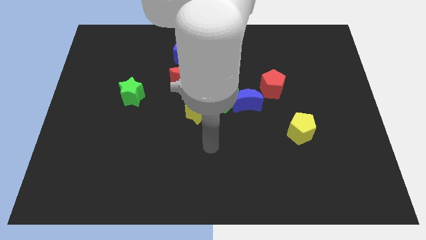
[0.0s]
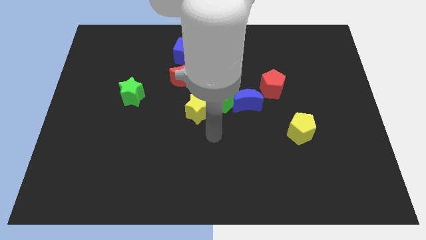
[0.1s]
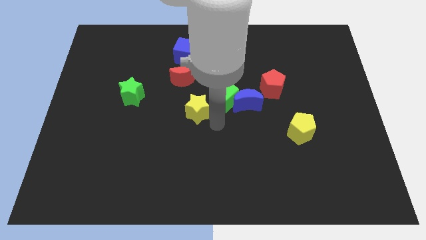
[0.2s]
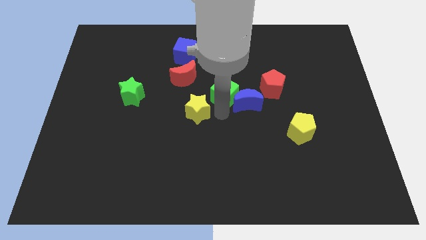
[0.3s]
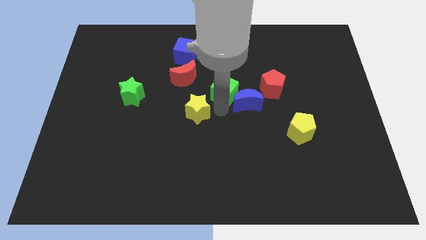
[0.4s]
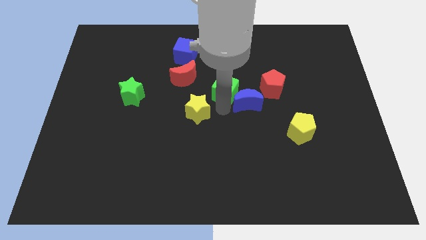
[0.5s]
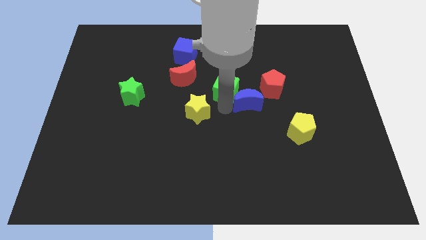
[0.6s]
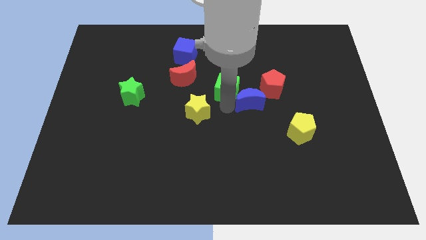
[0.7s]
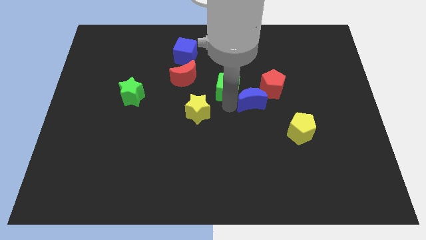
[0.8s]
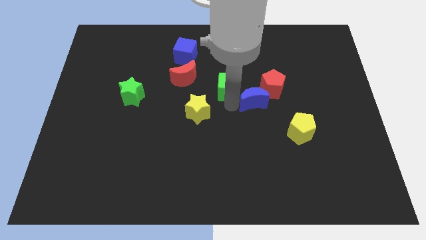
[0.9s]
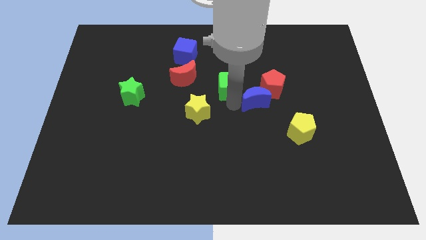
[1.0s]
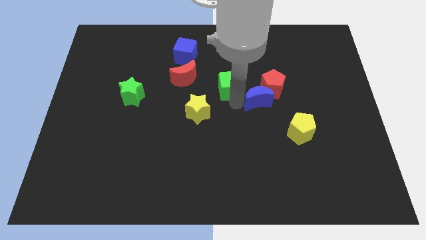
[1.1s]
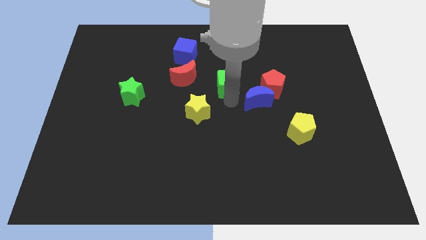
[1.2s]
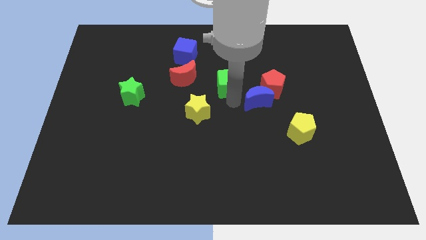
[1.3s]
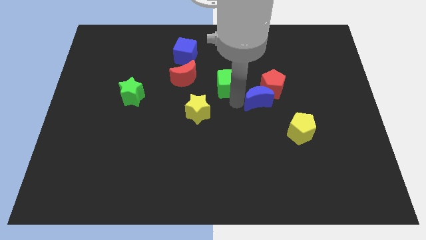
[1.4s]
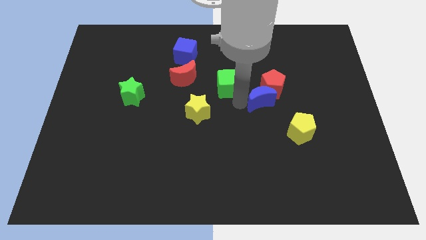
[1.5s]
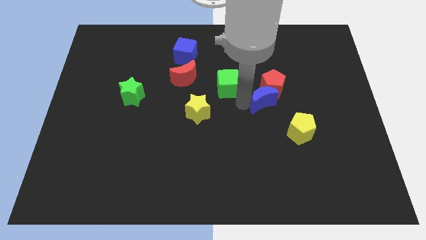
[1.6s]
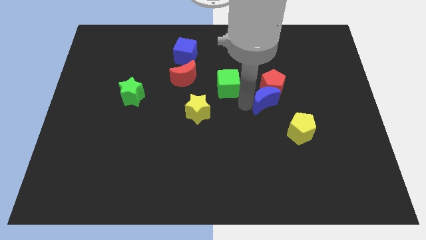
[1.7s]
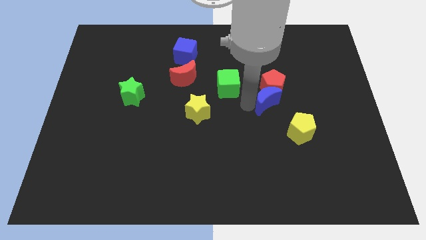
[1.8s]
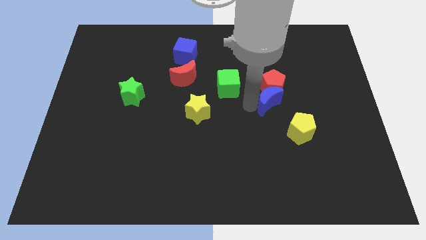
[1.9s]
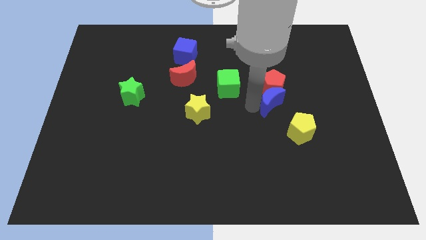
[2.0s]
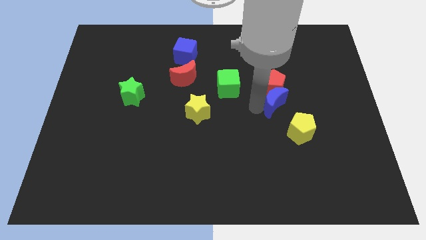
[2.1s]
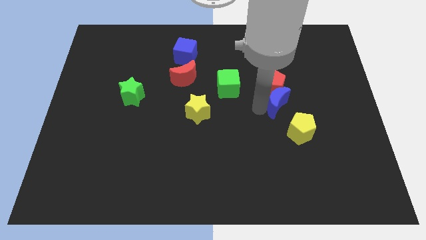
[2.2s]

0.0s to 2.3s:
slightly move the blue moon to the right

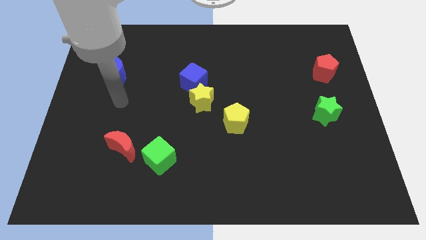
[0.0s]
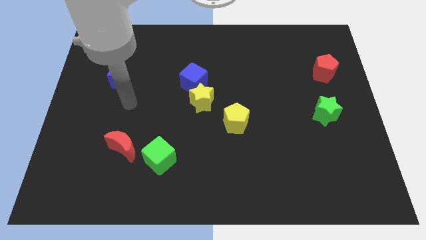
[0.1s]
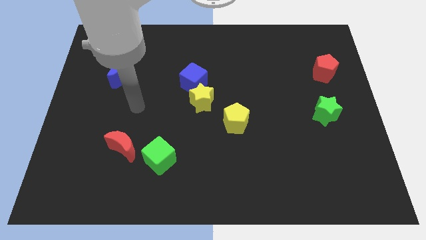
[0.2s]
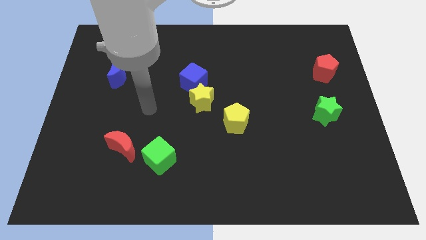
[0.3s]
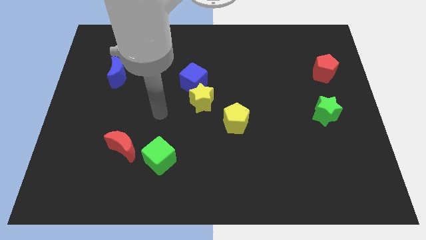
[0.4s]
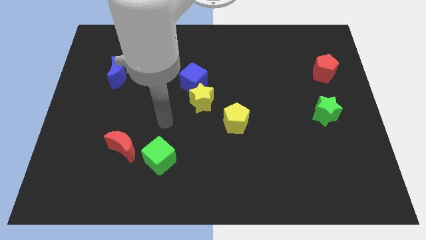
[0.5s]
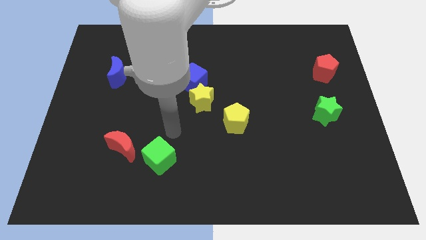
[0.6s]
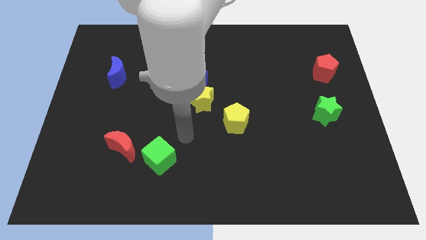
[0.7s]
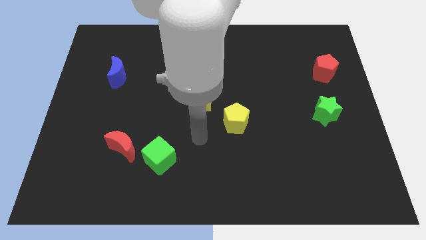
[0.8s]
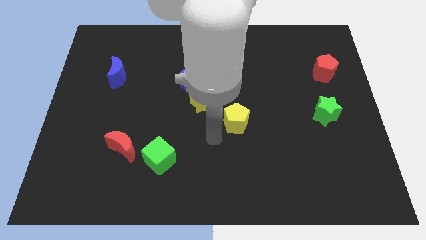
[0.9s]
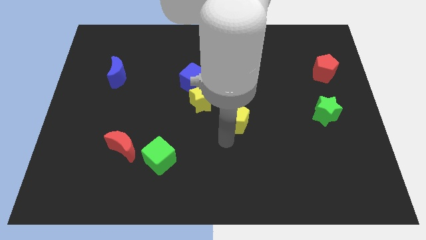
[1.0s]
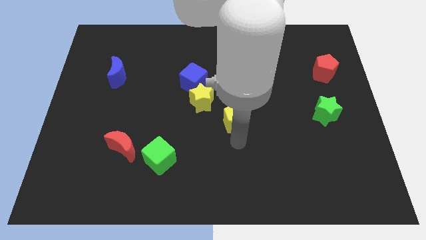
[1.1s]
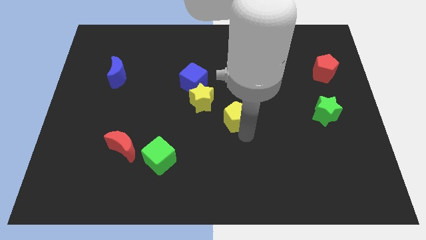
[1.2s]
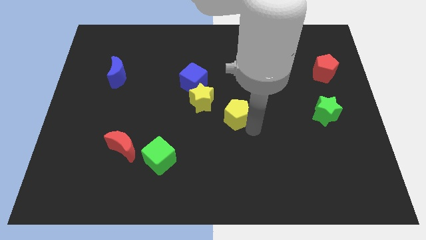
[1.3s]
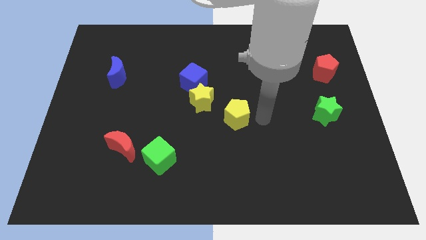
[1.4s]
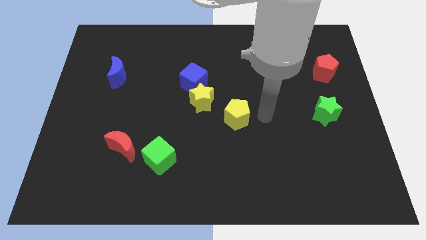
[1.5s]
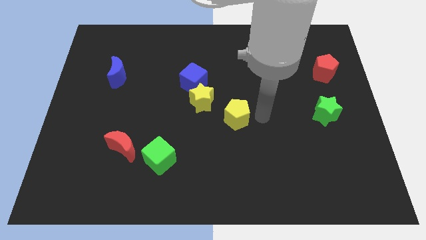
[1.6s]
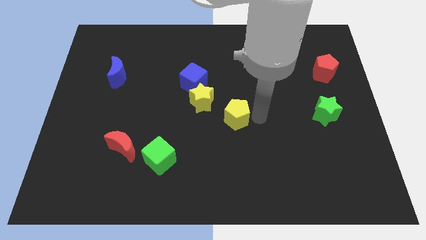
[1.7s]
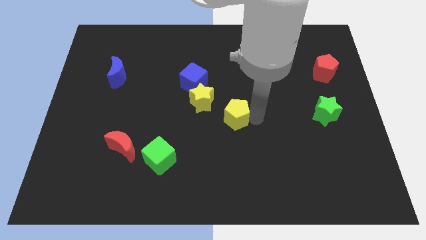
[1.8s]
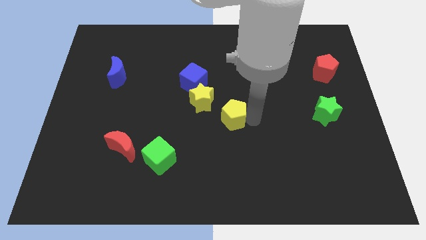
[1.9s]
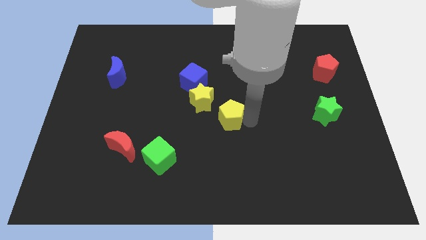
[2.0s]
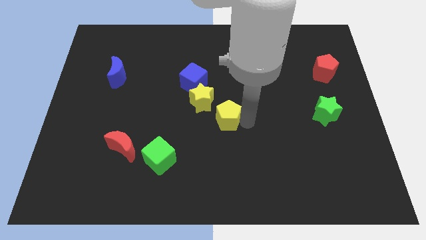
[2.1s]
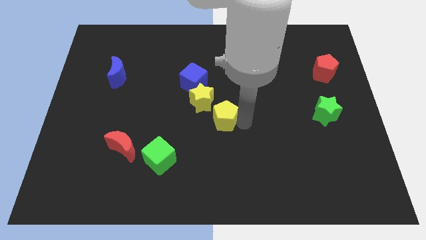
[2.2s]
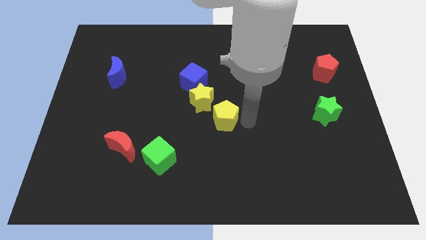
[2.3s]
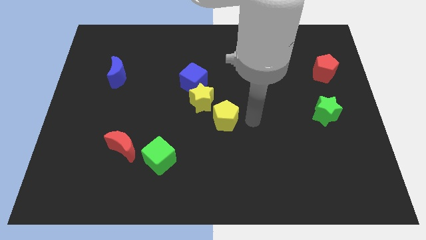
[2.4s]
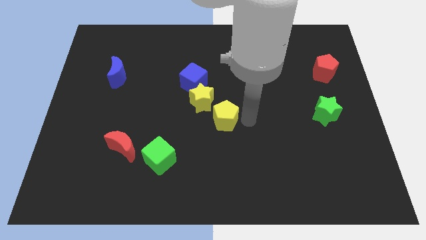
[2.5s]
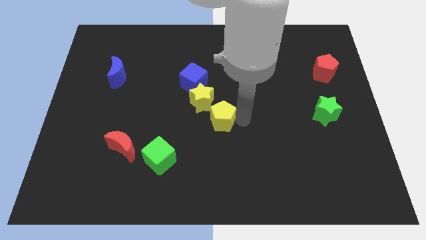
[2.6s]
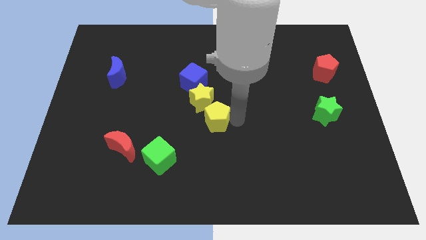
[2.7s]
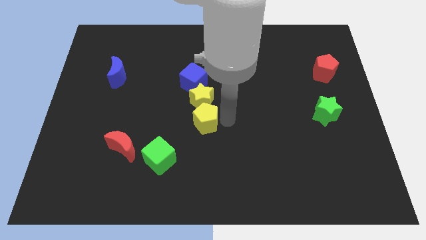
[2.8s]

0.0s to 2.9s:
slightly push the yellow pentagon left

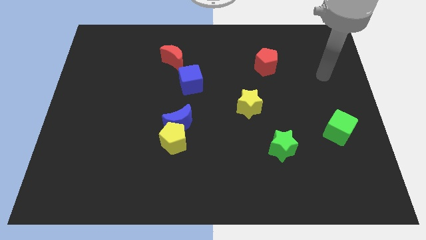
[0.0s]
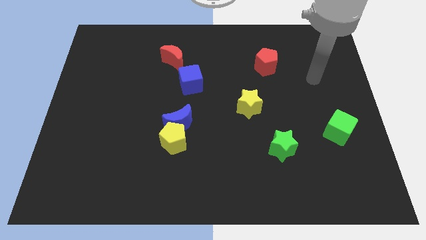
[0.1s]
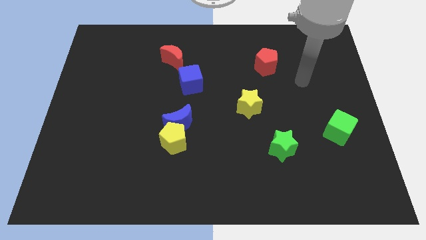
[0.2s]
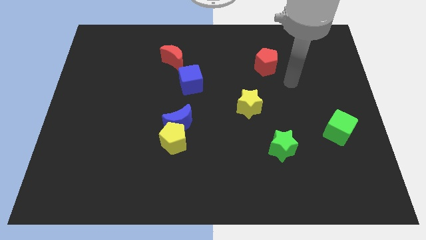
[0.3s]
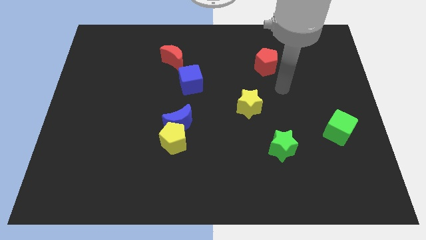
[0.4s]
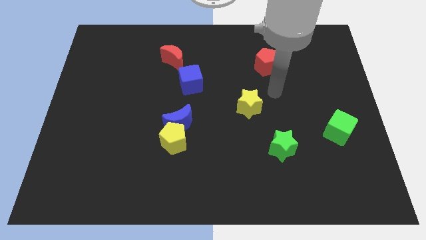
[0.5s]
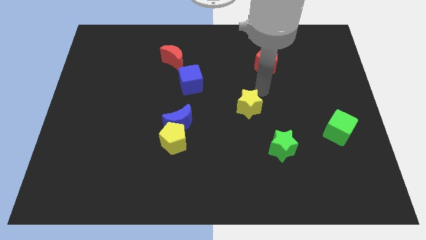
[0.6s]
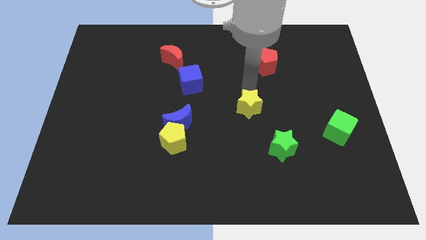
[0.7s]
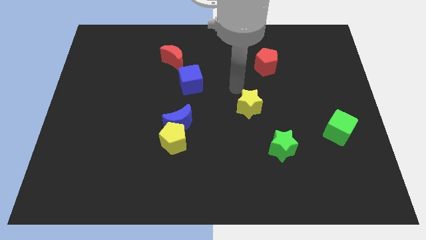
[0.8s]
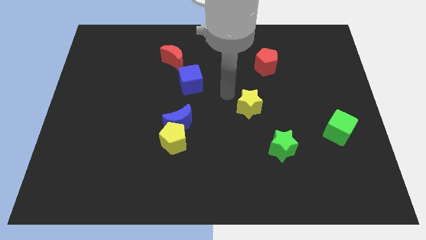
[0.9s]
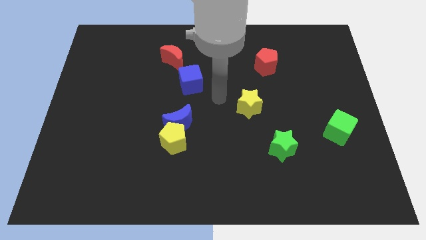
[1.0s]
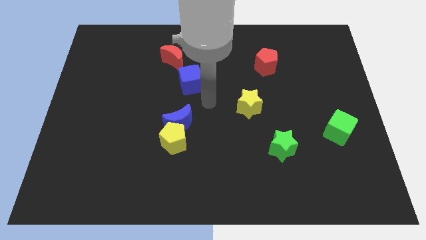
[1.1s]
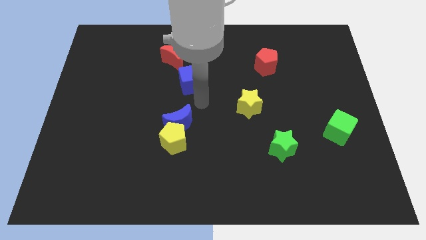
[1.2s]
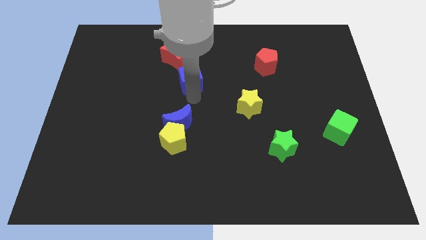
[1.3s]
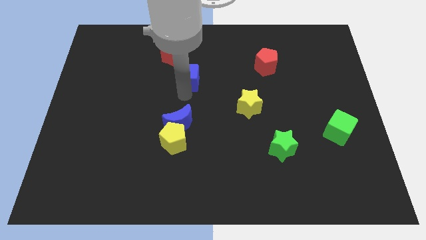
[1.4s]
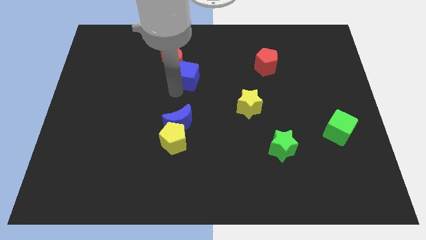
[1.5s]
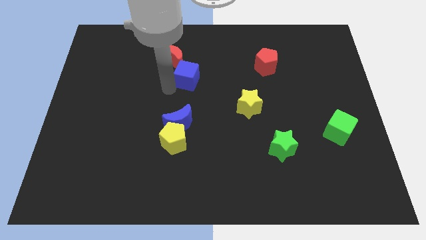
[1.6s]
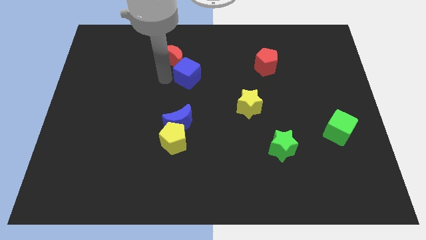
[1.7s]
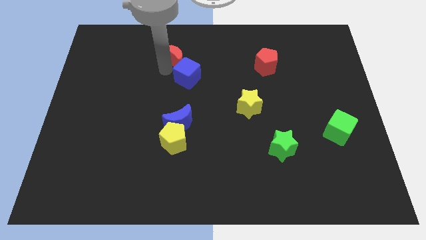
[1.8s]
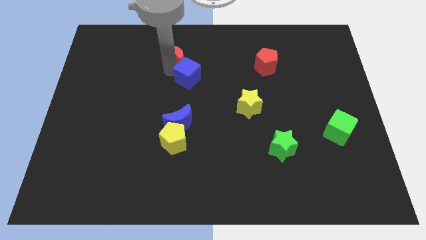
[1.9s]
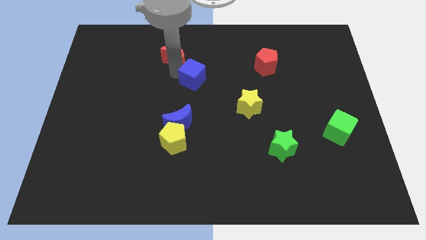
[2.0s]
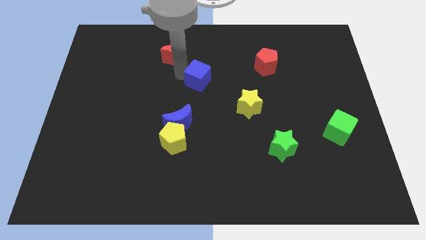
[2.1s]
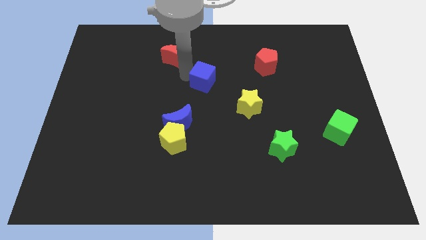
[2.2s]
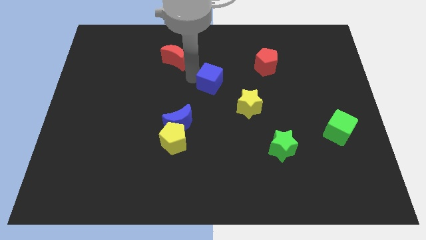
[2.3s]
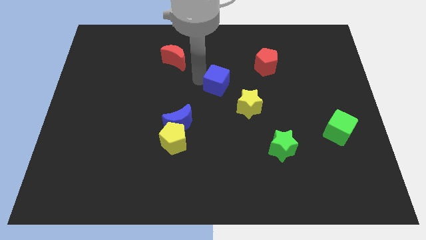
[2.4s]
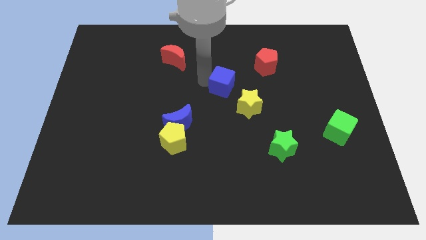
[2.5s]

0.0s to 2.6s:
push the blue cube right a bit

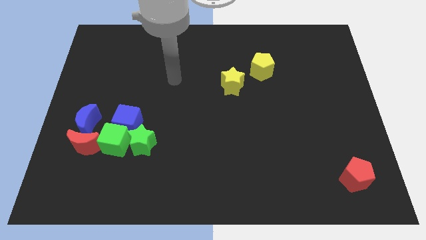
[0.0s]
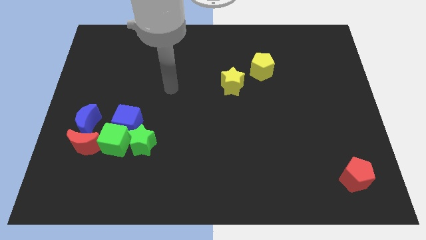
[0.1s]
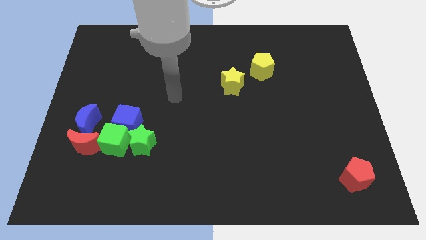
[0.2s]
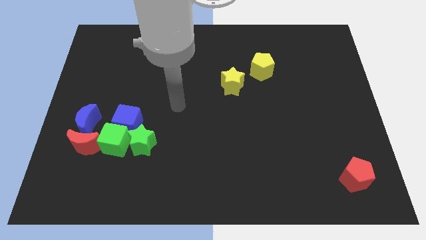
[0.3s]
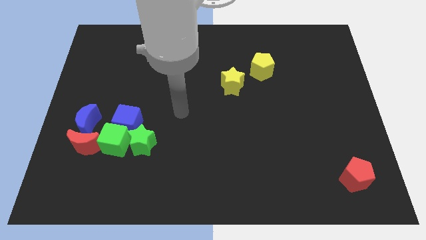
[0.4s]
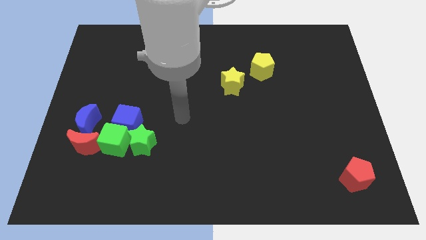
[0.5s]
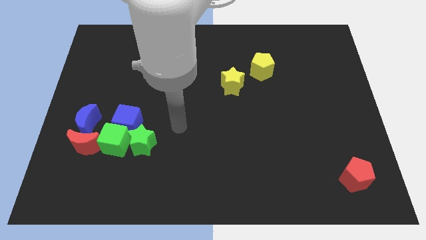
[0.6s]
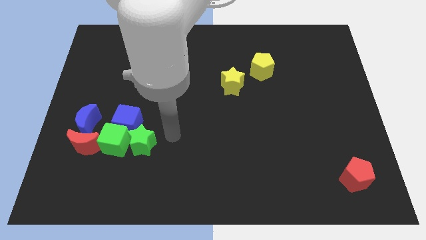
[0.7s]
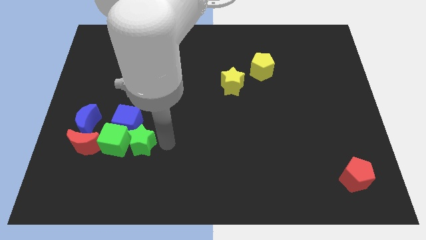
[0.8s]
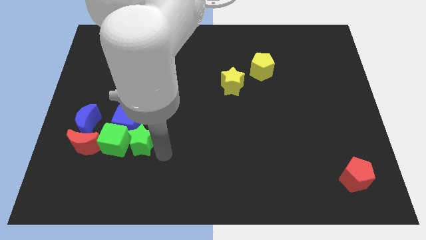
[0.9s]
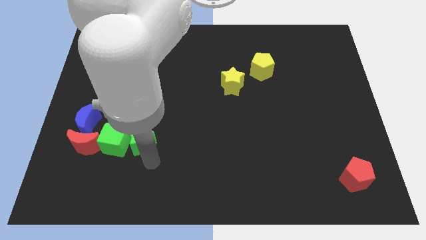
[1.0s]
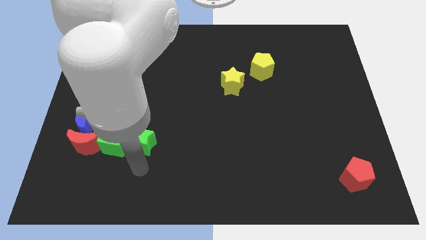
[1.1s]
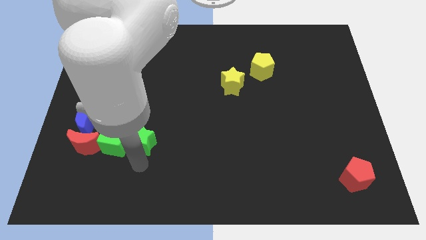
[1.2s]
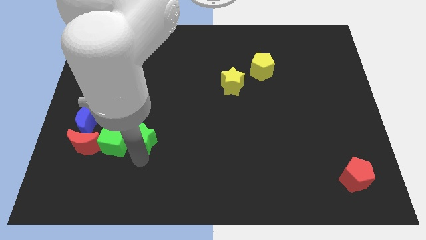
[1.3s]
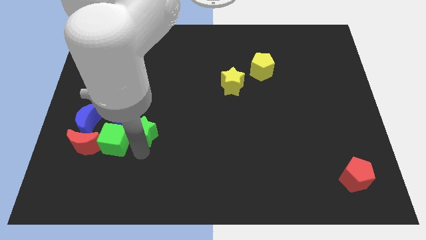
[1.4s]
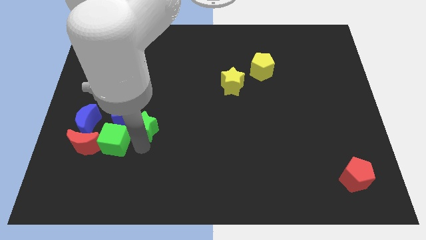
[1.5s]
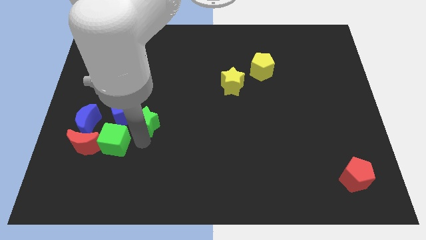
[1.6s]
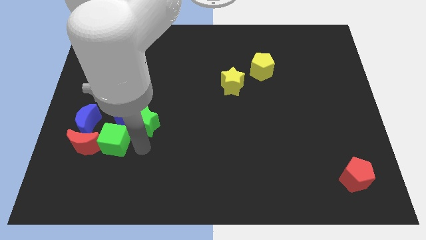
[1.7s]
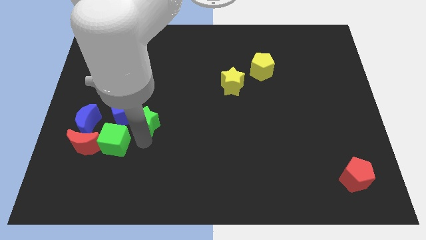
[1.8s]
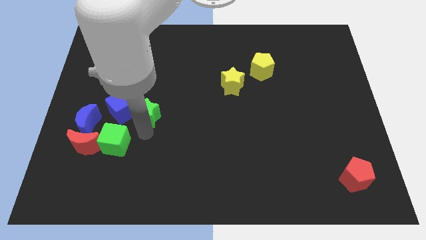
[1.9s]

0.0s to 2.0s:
slide the green star a little up
